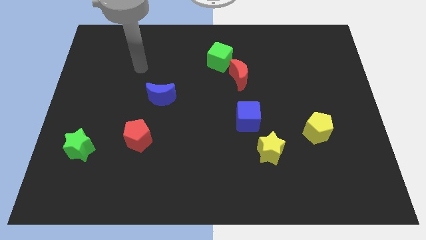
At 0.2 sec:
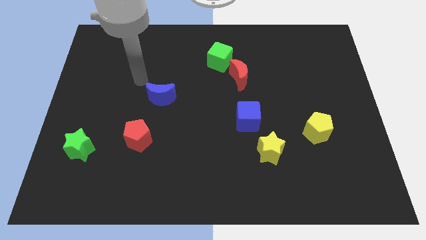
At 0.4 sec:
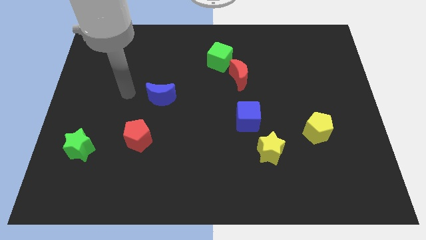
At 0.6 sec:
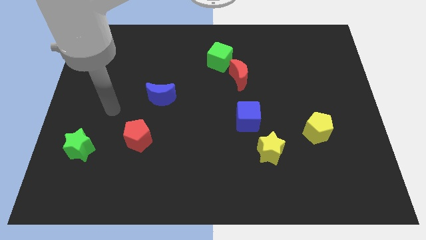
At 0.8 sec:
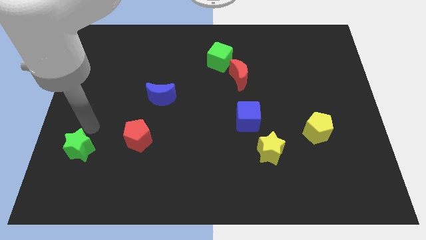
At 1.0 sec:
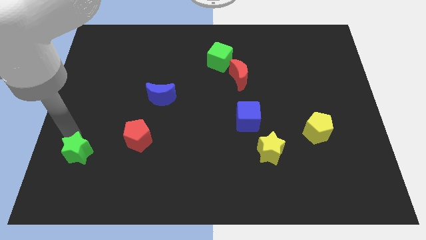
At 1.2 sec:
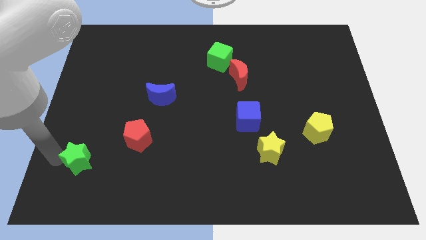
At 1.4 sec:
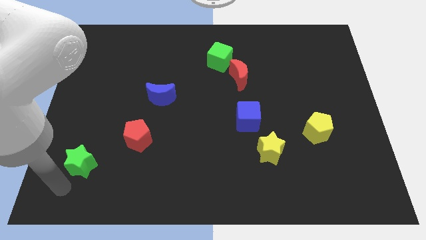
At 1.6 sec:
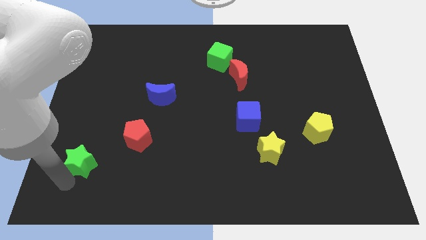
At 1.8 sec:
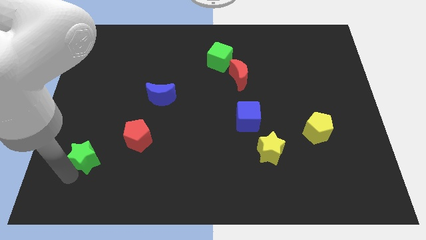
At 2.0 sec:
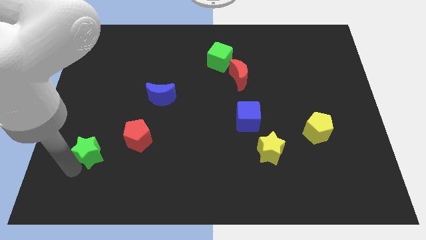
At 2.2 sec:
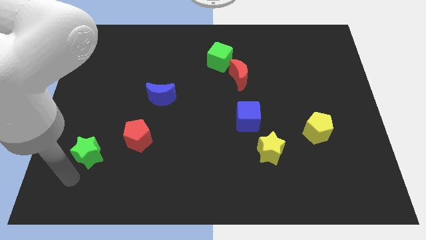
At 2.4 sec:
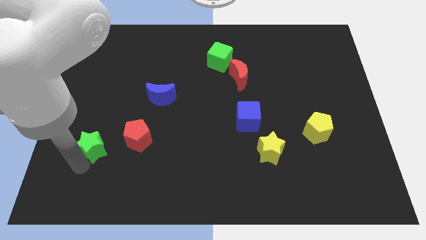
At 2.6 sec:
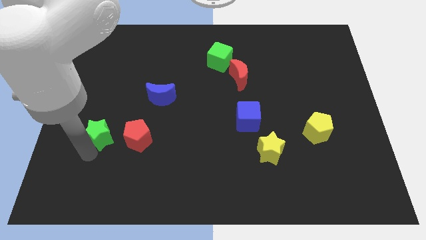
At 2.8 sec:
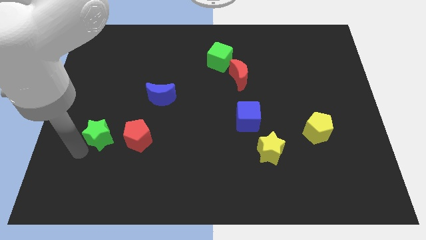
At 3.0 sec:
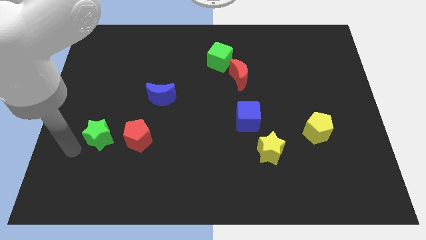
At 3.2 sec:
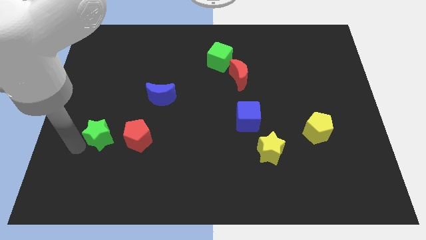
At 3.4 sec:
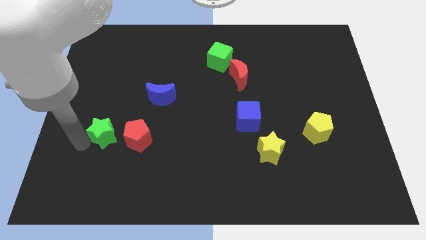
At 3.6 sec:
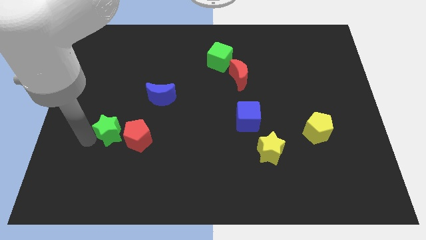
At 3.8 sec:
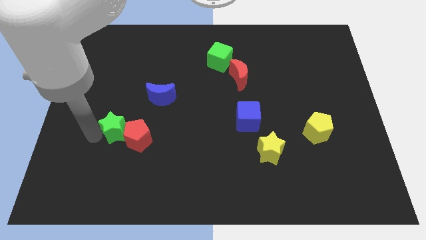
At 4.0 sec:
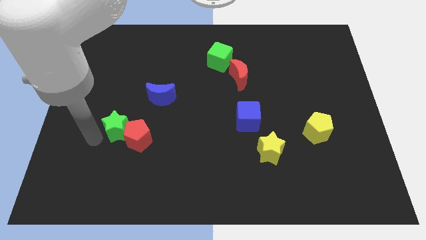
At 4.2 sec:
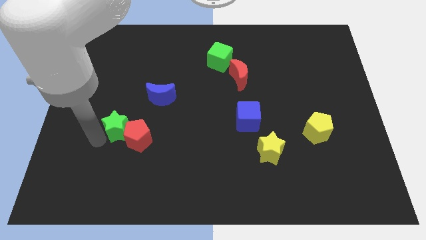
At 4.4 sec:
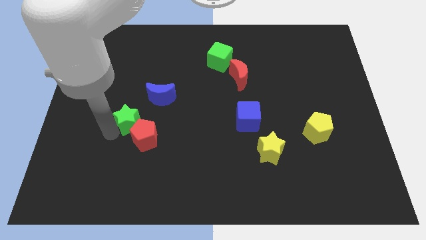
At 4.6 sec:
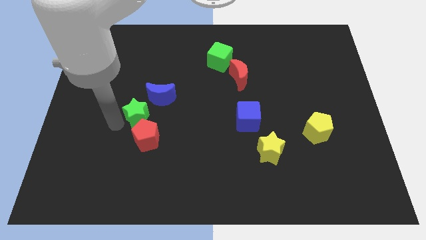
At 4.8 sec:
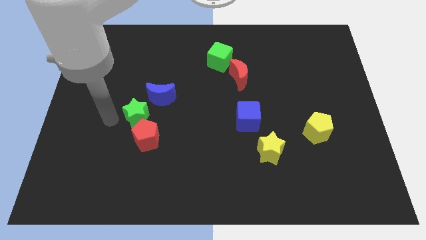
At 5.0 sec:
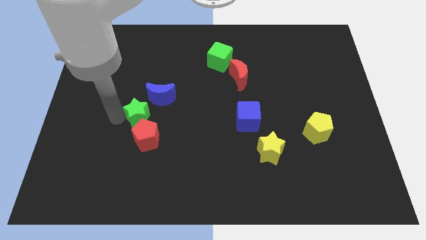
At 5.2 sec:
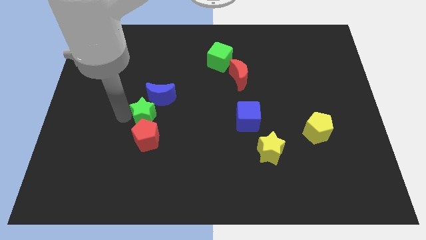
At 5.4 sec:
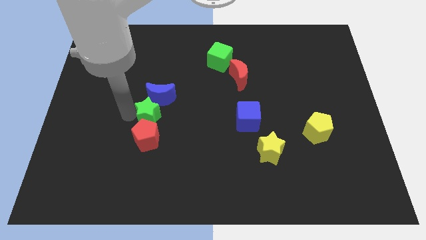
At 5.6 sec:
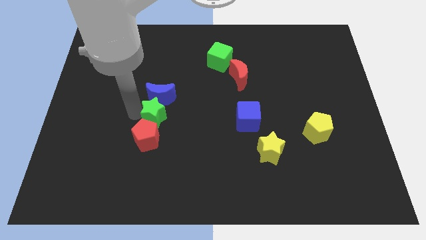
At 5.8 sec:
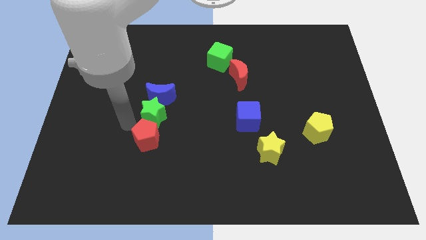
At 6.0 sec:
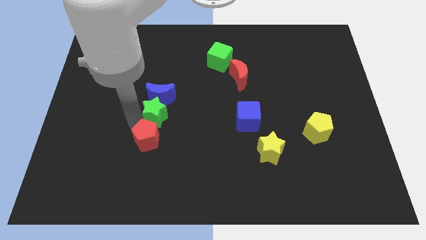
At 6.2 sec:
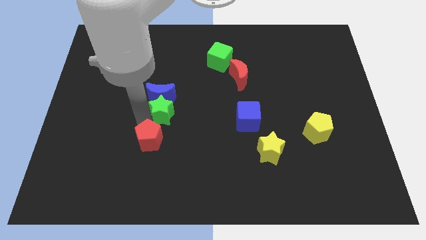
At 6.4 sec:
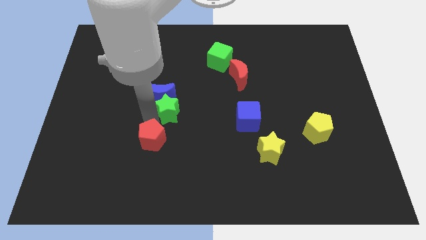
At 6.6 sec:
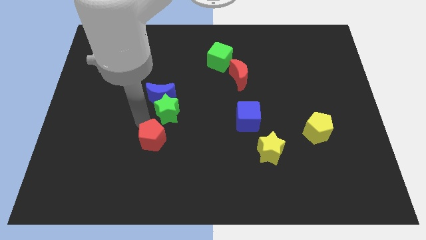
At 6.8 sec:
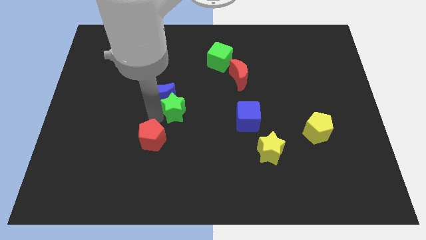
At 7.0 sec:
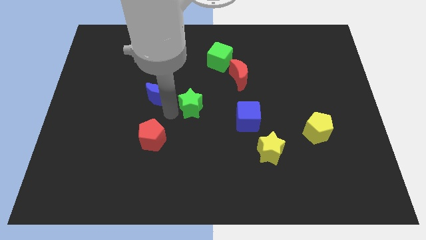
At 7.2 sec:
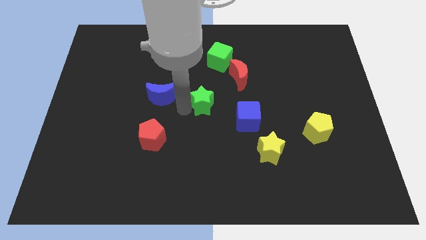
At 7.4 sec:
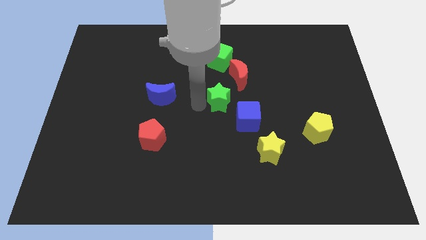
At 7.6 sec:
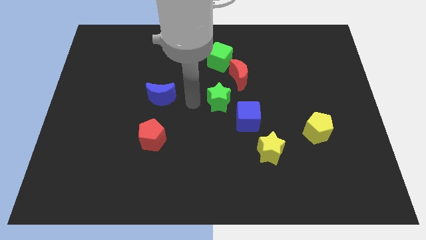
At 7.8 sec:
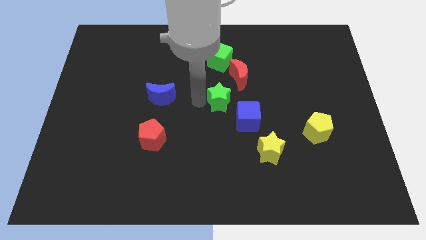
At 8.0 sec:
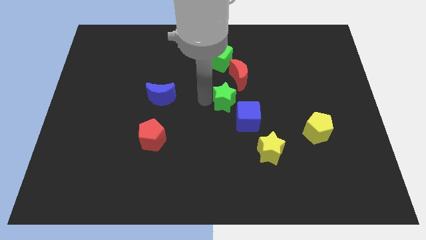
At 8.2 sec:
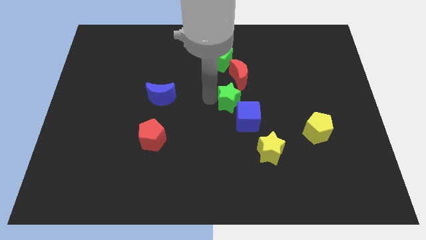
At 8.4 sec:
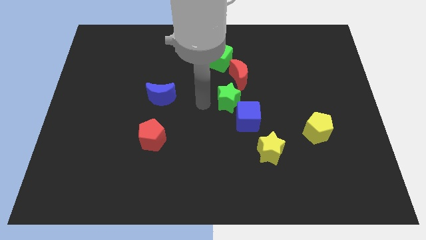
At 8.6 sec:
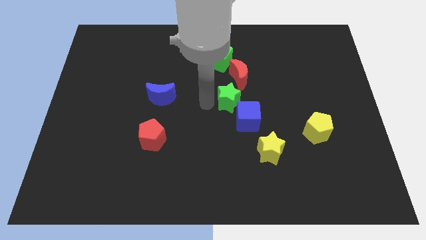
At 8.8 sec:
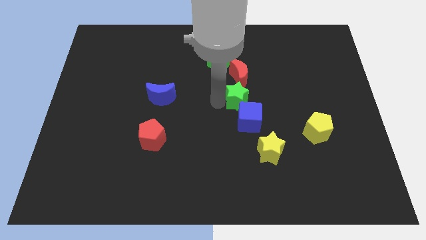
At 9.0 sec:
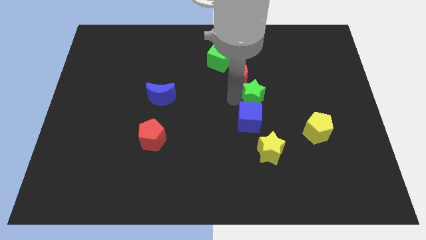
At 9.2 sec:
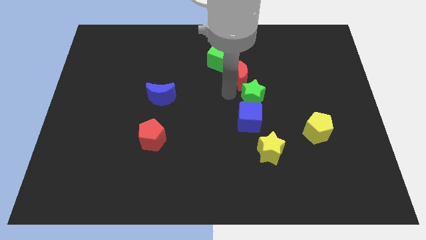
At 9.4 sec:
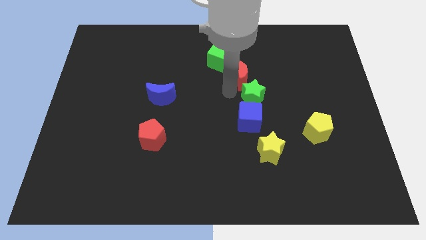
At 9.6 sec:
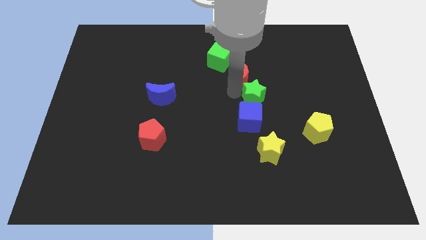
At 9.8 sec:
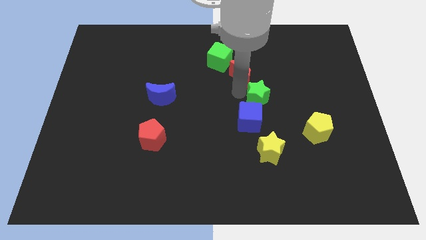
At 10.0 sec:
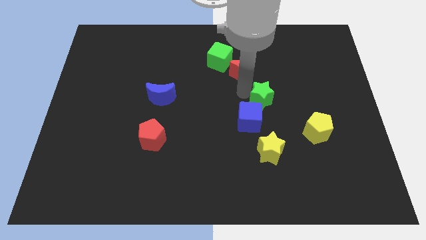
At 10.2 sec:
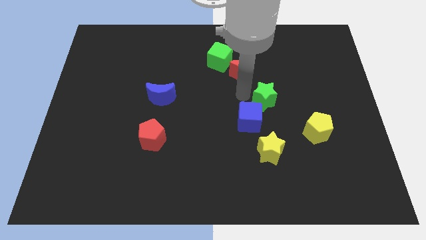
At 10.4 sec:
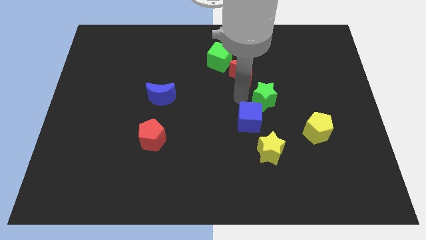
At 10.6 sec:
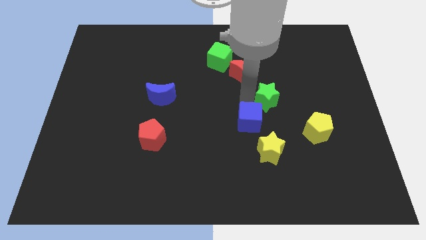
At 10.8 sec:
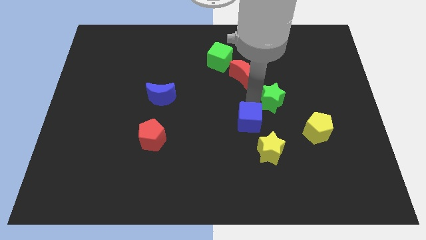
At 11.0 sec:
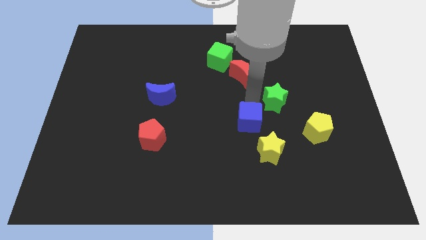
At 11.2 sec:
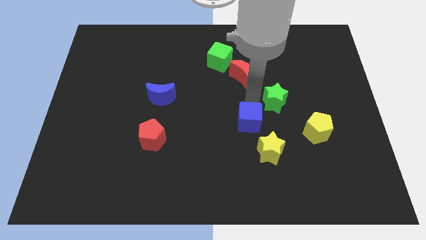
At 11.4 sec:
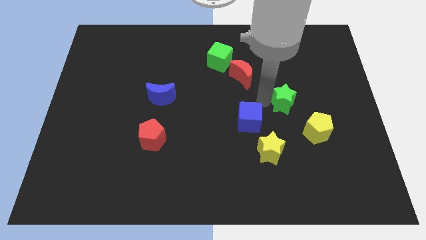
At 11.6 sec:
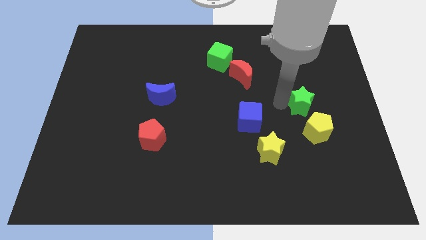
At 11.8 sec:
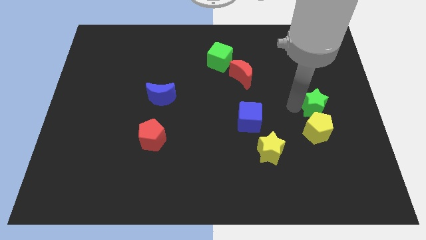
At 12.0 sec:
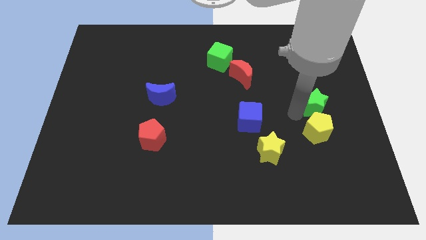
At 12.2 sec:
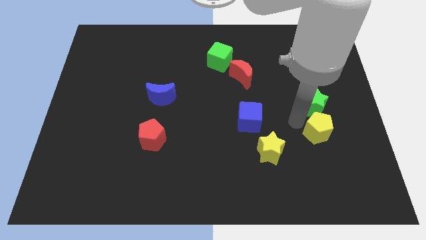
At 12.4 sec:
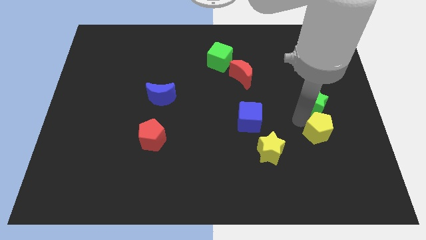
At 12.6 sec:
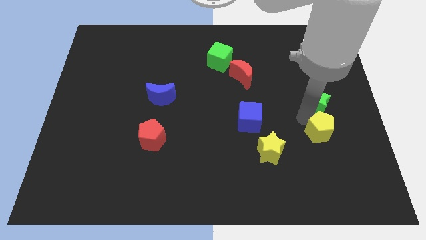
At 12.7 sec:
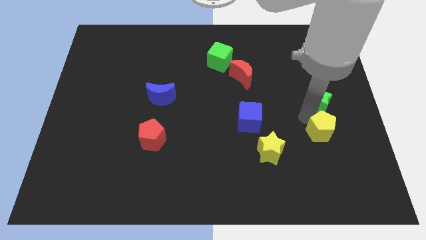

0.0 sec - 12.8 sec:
push the green star to the right side of the board
